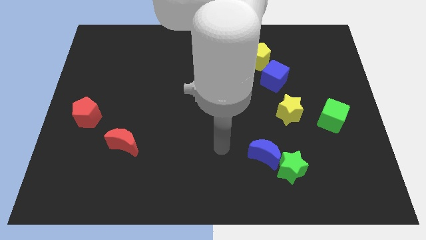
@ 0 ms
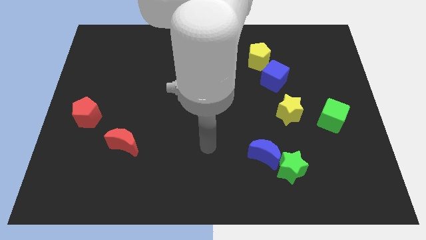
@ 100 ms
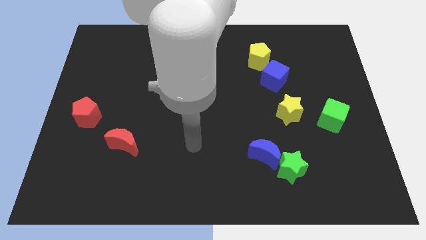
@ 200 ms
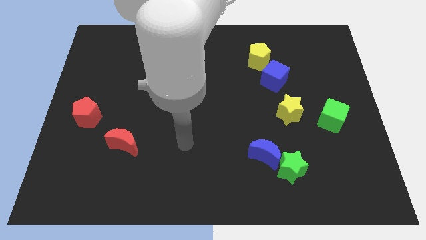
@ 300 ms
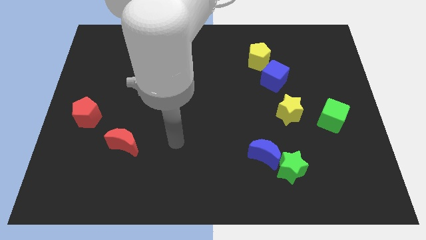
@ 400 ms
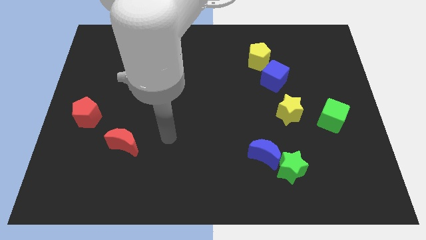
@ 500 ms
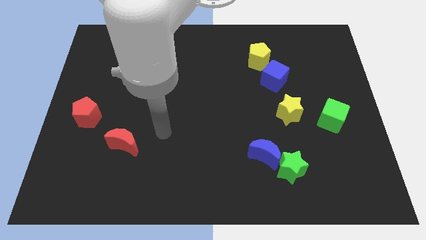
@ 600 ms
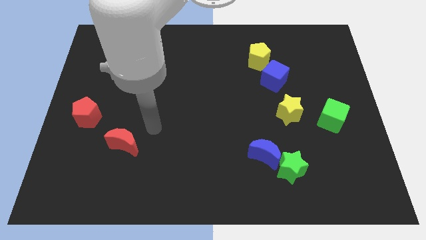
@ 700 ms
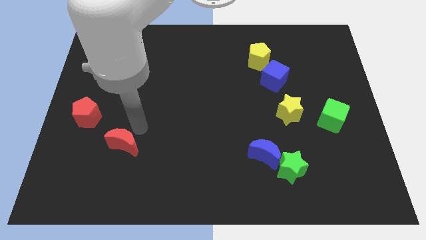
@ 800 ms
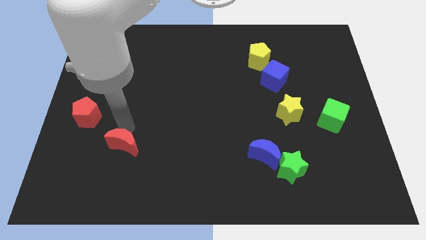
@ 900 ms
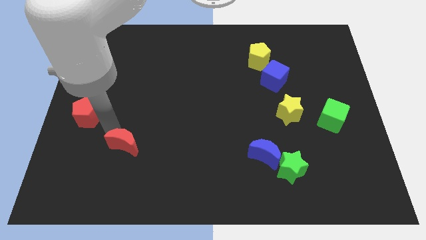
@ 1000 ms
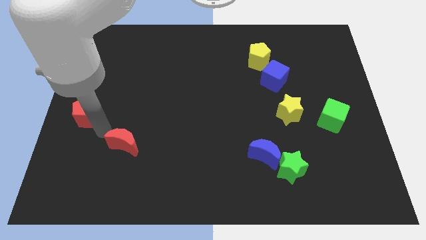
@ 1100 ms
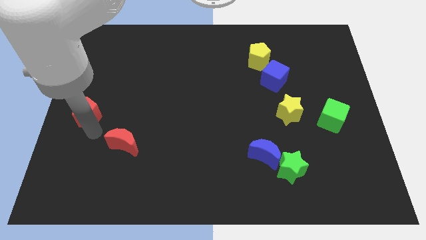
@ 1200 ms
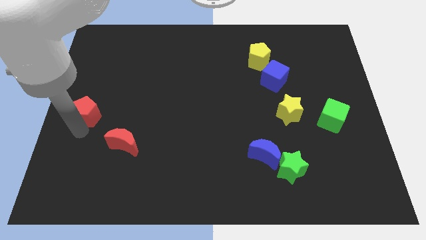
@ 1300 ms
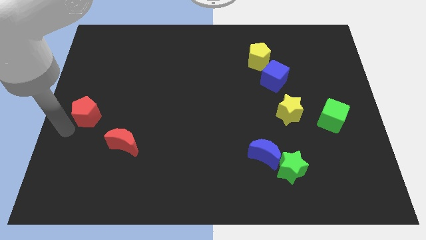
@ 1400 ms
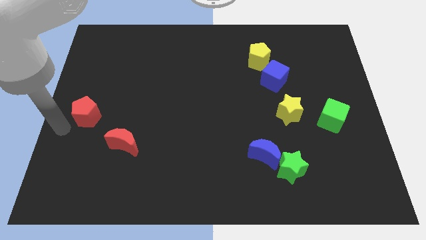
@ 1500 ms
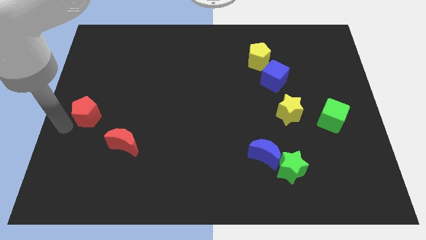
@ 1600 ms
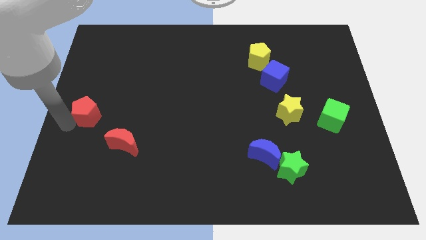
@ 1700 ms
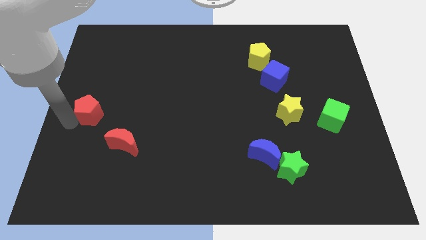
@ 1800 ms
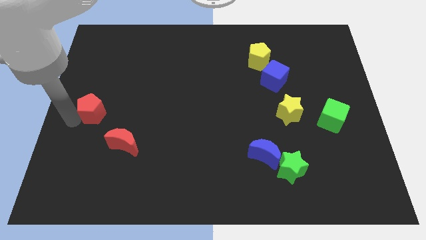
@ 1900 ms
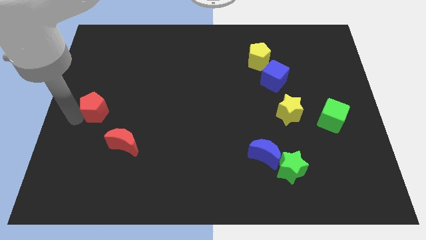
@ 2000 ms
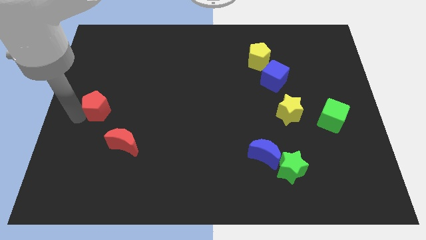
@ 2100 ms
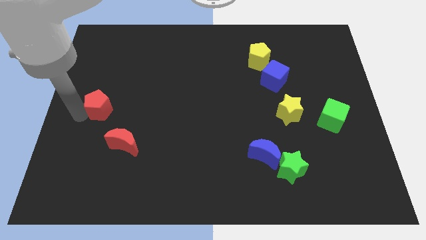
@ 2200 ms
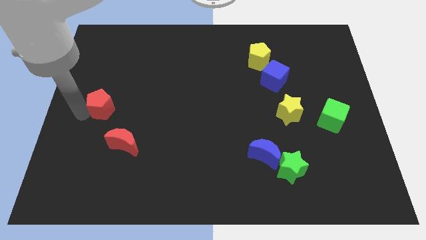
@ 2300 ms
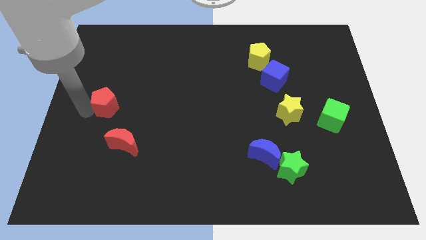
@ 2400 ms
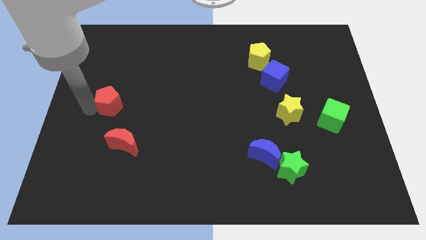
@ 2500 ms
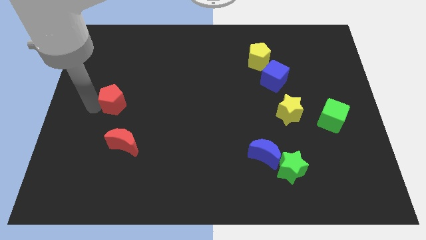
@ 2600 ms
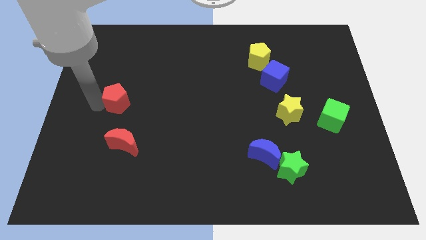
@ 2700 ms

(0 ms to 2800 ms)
push the red pentagon upwards and right a little

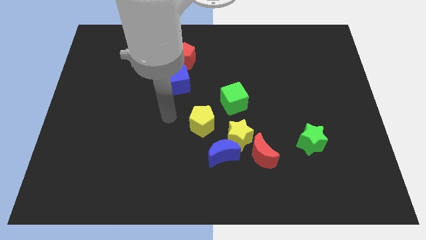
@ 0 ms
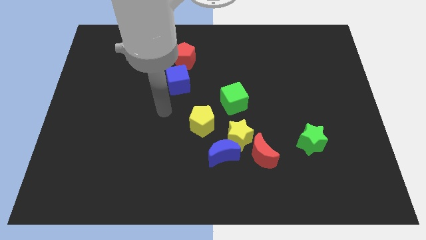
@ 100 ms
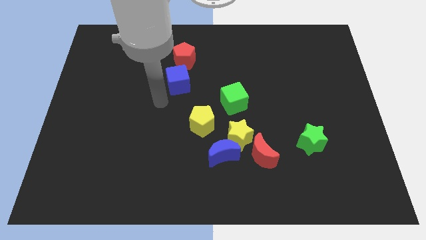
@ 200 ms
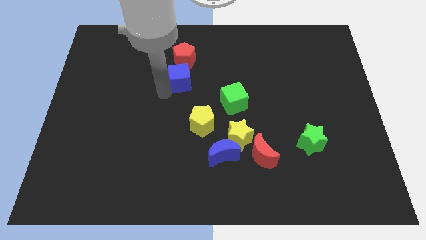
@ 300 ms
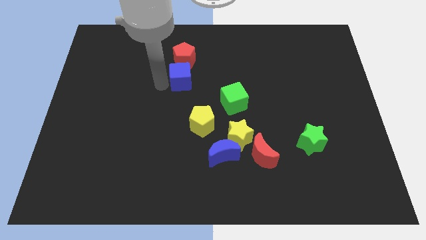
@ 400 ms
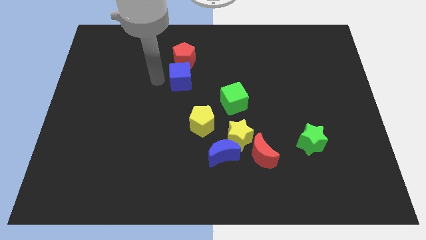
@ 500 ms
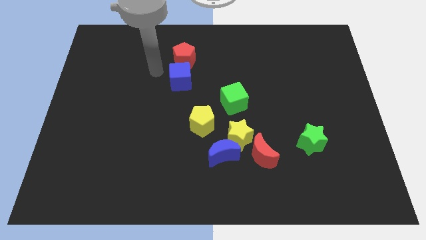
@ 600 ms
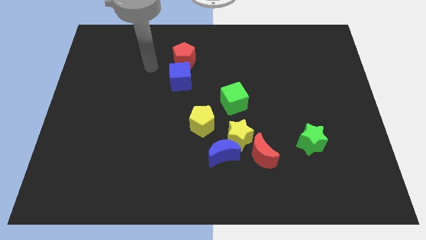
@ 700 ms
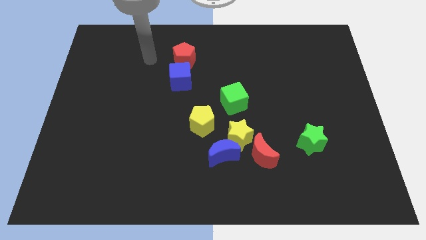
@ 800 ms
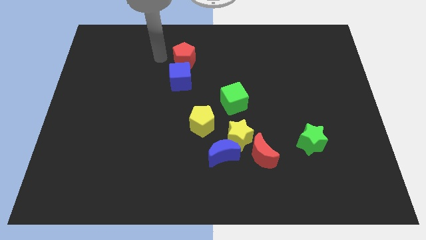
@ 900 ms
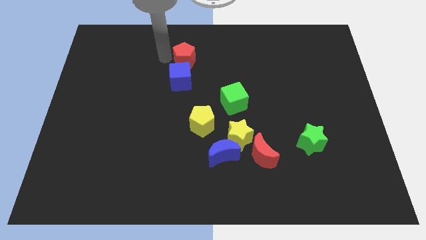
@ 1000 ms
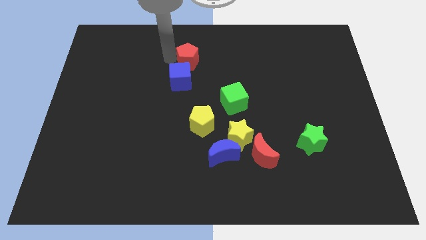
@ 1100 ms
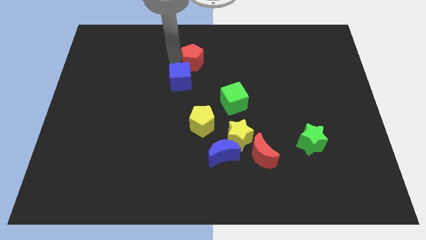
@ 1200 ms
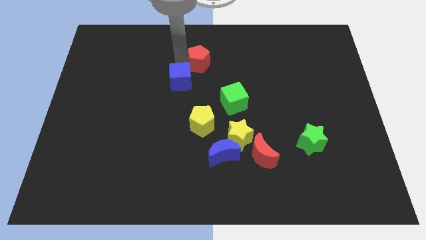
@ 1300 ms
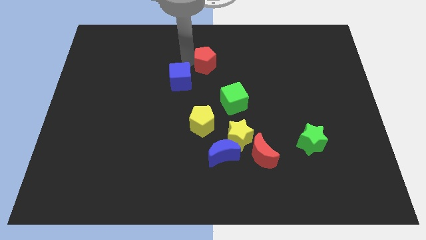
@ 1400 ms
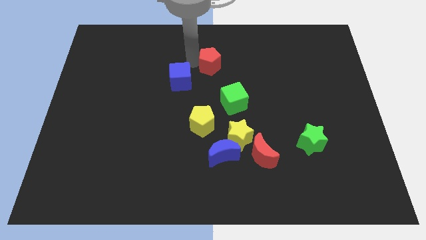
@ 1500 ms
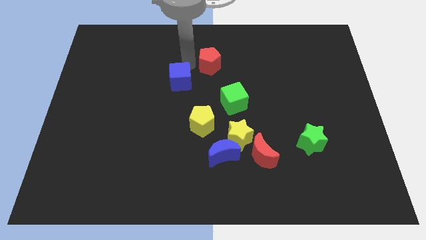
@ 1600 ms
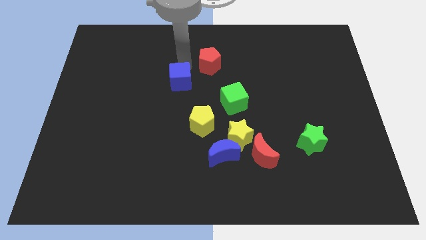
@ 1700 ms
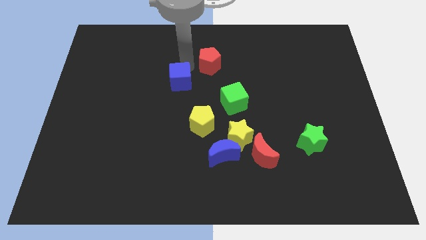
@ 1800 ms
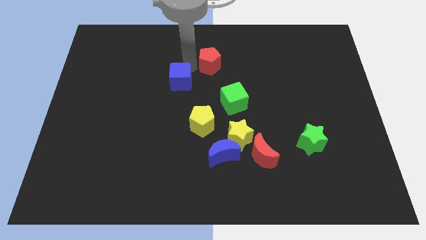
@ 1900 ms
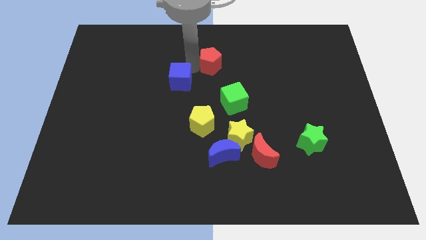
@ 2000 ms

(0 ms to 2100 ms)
slide the red pentagon right a bit

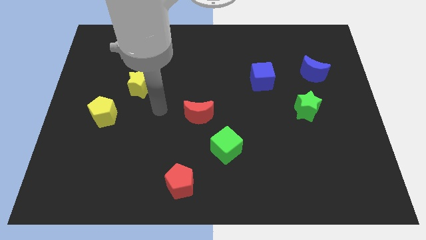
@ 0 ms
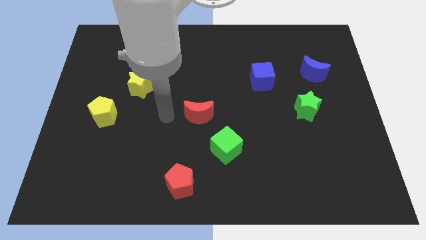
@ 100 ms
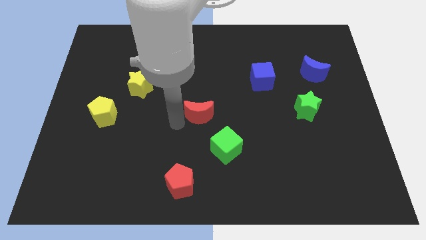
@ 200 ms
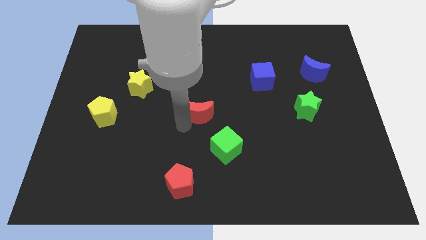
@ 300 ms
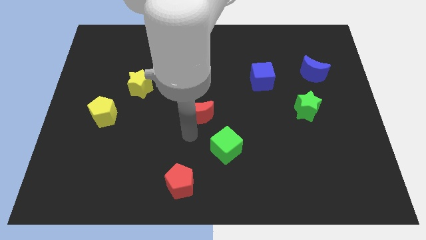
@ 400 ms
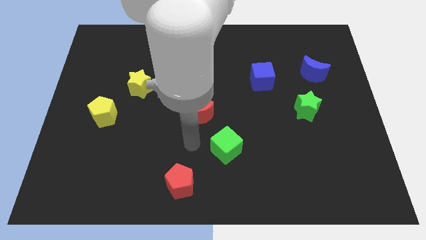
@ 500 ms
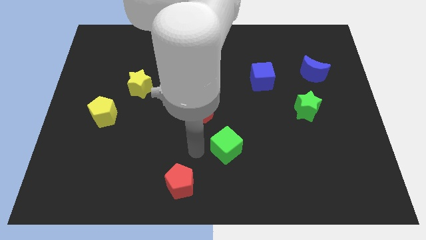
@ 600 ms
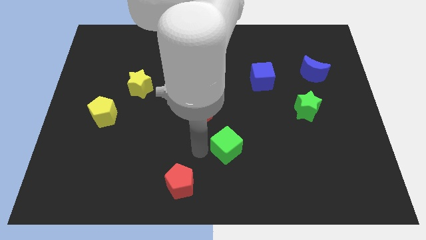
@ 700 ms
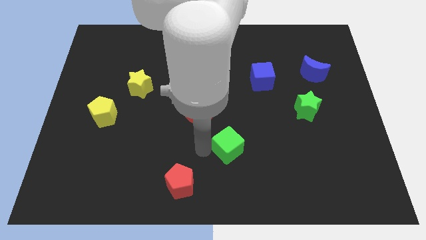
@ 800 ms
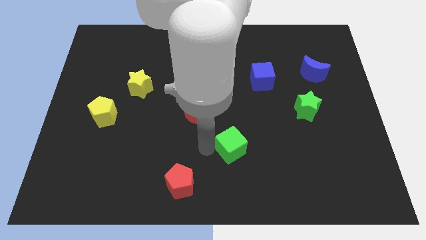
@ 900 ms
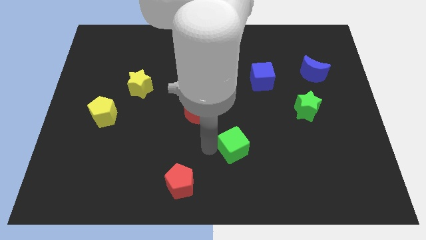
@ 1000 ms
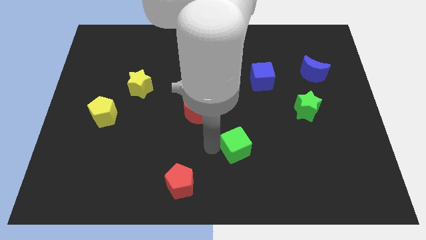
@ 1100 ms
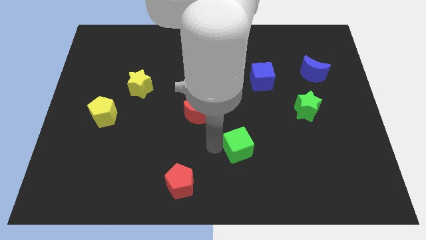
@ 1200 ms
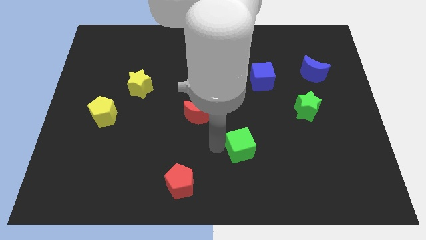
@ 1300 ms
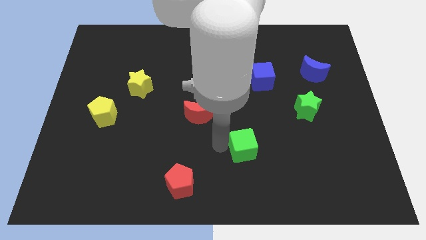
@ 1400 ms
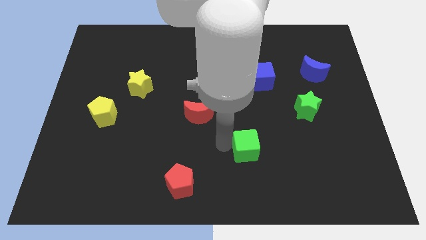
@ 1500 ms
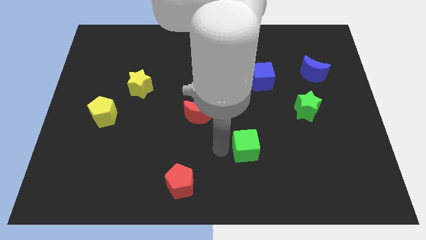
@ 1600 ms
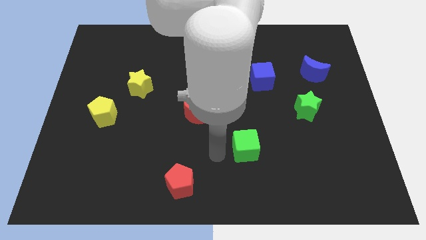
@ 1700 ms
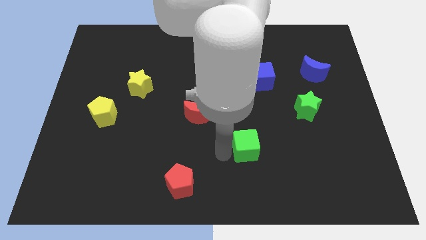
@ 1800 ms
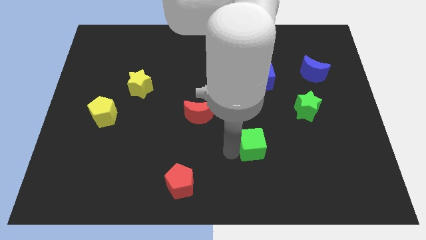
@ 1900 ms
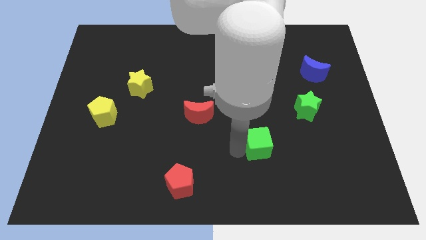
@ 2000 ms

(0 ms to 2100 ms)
move the green cube slightly right

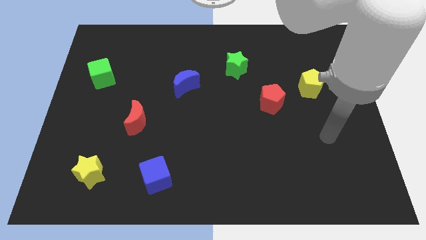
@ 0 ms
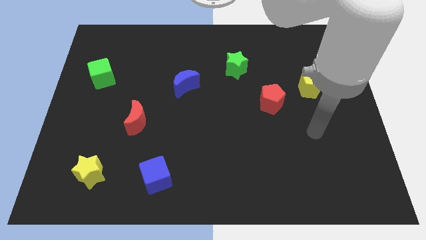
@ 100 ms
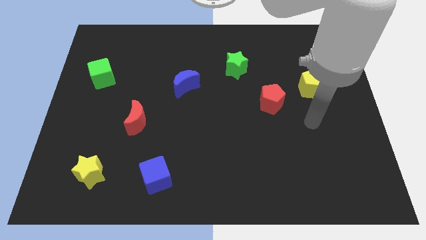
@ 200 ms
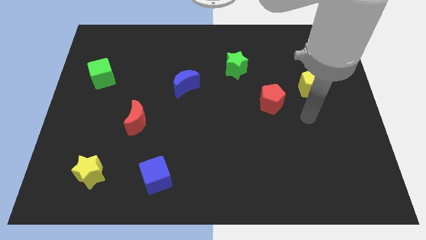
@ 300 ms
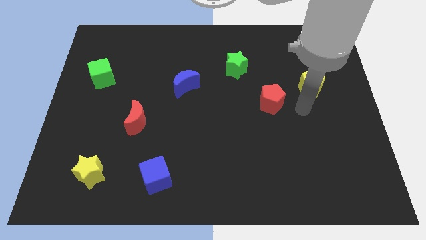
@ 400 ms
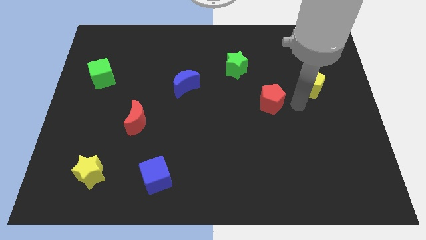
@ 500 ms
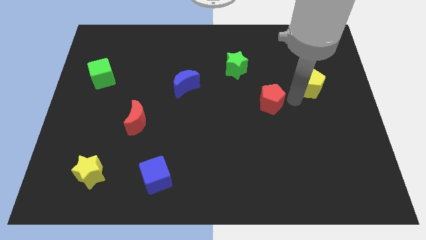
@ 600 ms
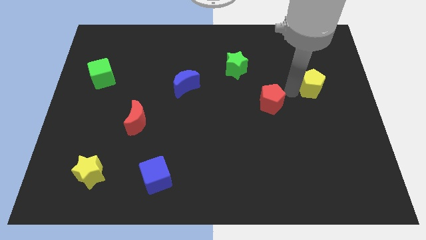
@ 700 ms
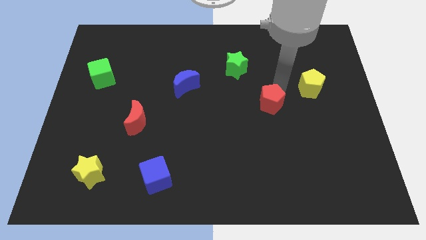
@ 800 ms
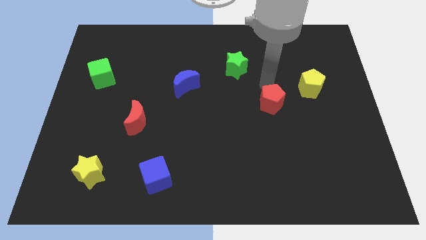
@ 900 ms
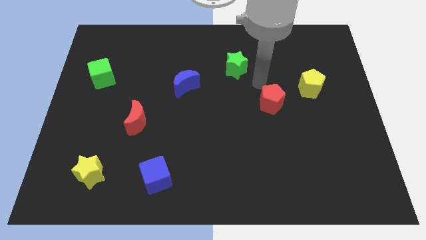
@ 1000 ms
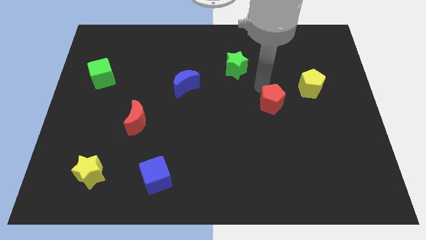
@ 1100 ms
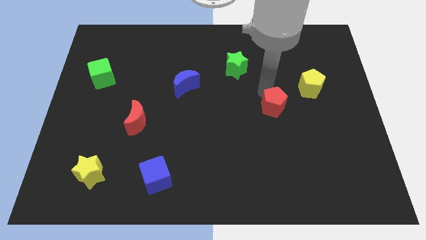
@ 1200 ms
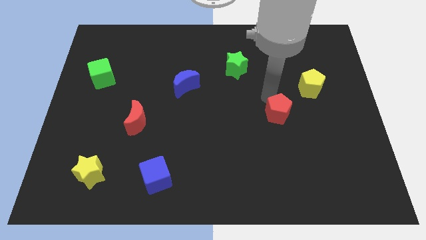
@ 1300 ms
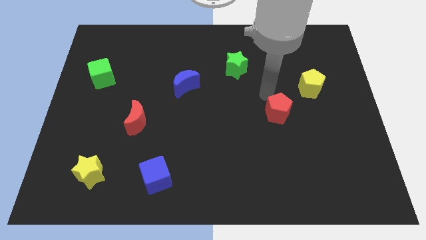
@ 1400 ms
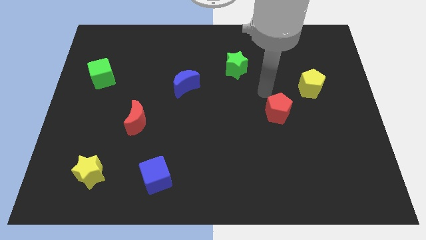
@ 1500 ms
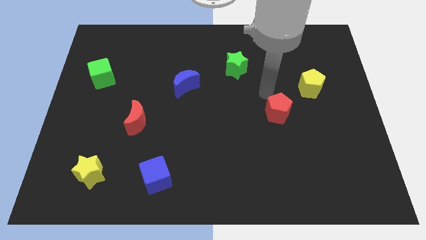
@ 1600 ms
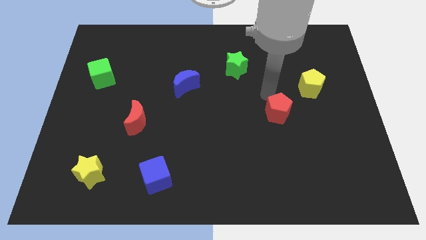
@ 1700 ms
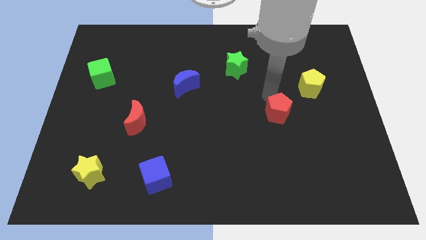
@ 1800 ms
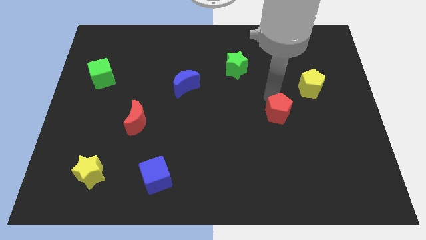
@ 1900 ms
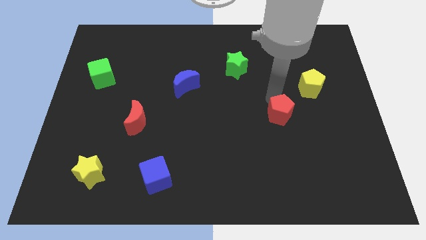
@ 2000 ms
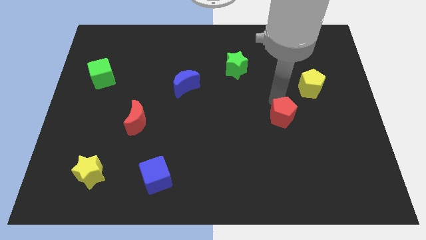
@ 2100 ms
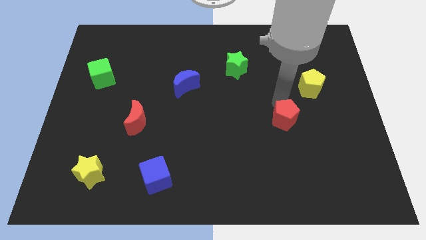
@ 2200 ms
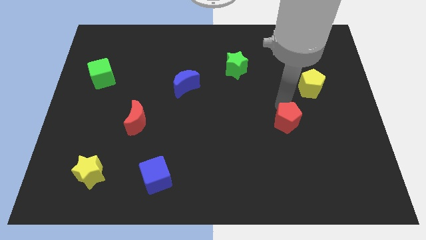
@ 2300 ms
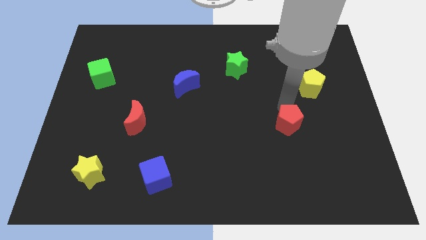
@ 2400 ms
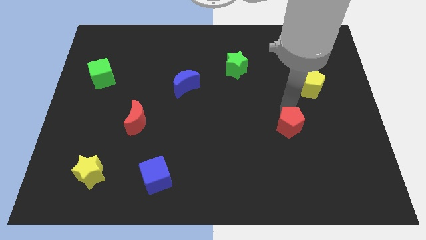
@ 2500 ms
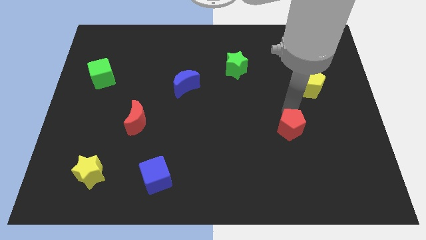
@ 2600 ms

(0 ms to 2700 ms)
slightly push the red pentagon downwards
